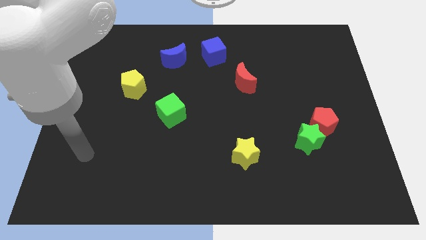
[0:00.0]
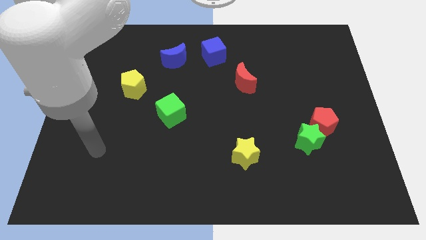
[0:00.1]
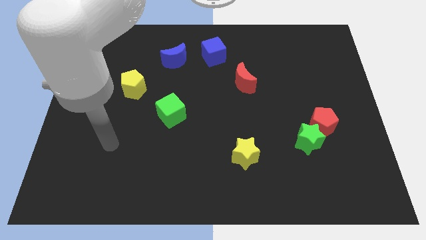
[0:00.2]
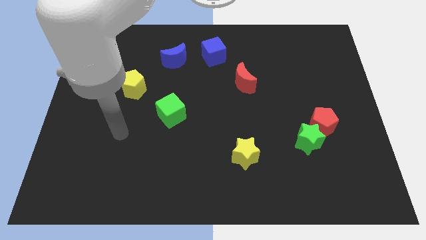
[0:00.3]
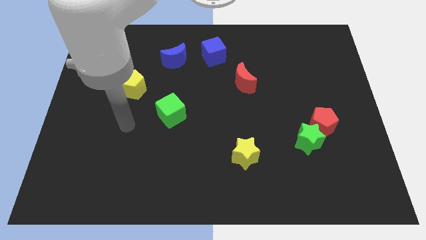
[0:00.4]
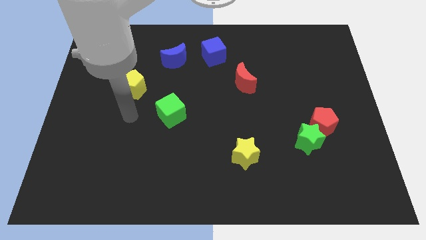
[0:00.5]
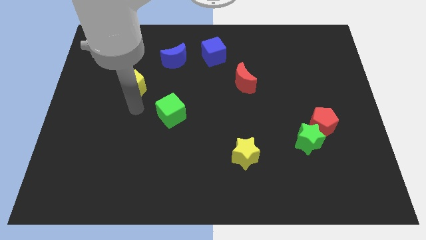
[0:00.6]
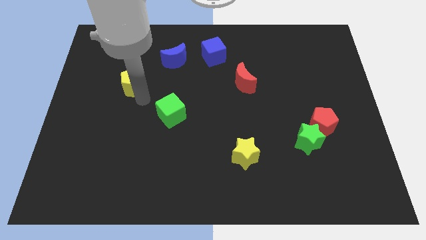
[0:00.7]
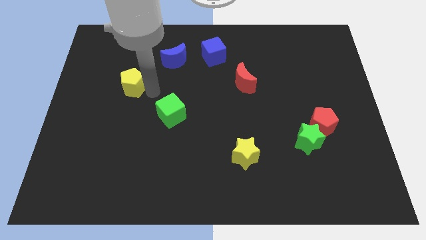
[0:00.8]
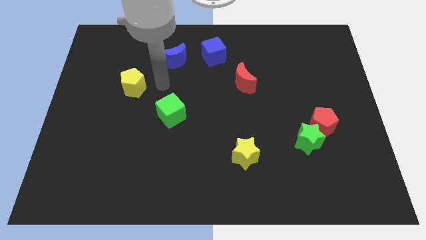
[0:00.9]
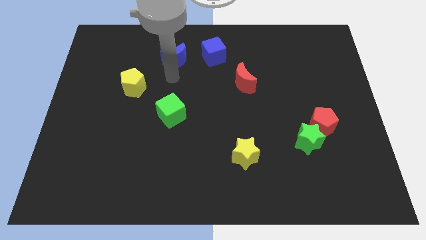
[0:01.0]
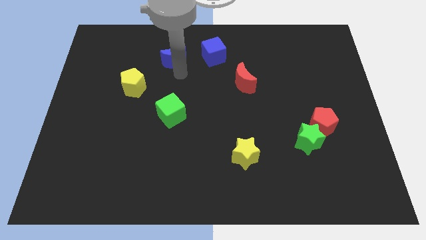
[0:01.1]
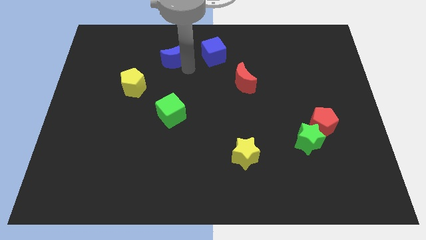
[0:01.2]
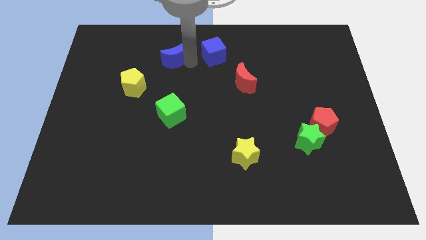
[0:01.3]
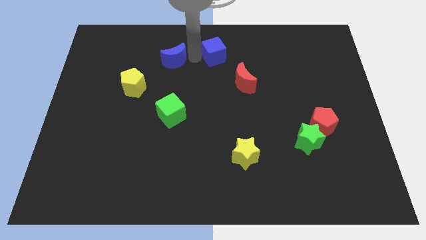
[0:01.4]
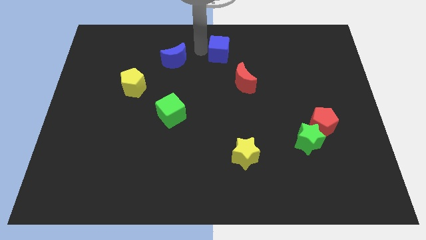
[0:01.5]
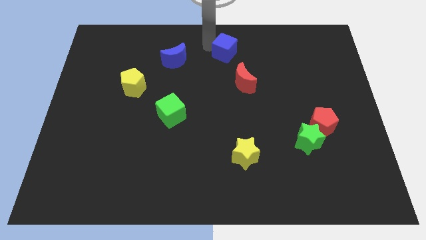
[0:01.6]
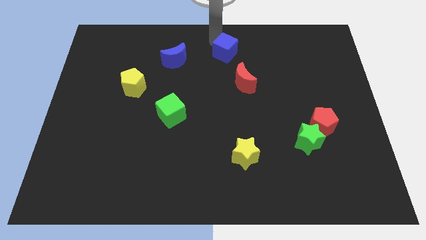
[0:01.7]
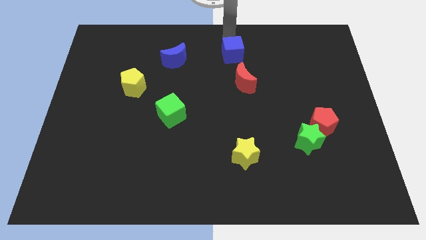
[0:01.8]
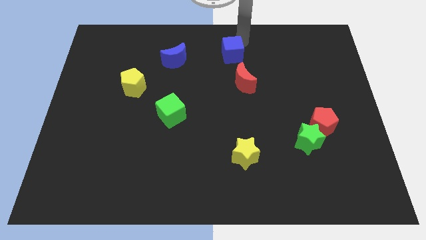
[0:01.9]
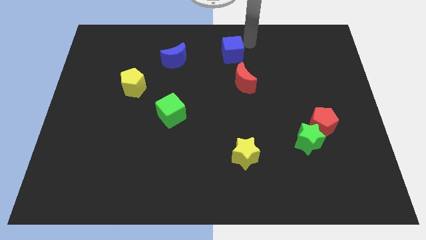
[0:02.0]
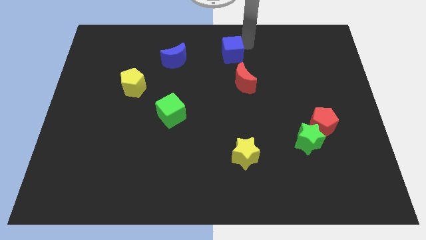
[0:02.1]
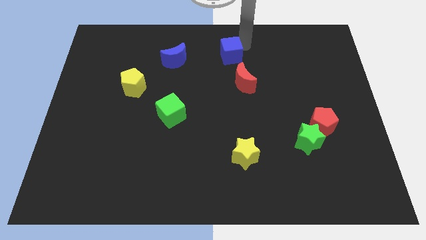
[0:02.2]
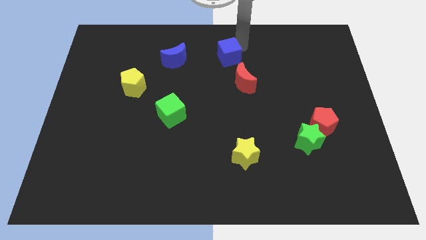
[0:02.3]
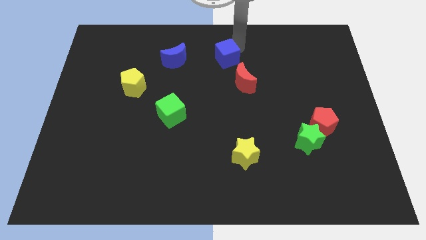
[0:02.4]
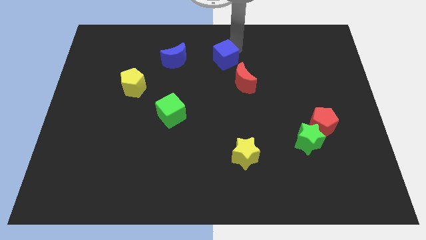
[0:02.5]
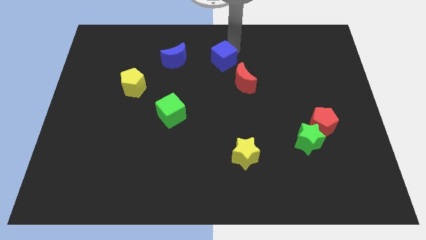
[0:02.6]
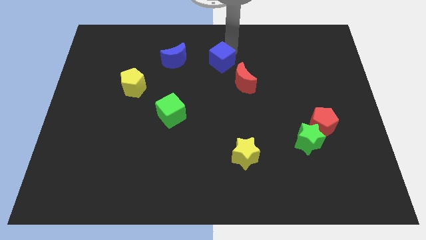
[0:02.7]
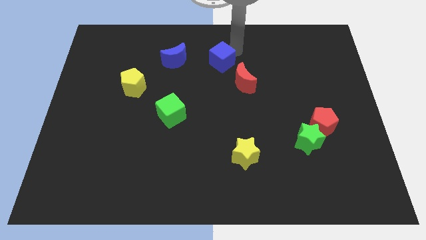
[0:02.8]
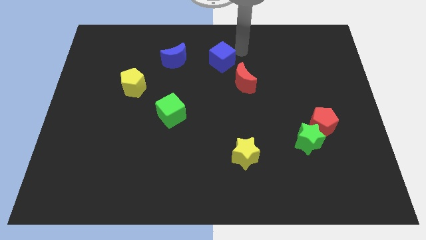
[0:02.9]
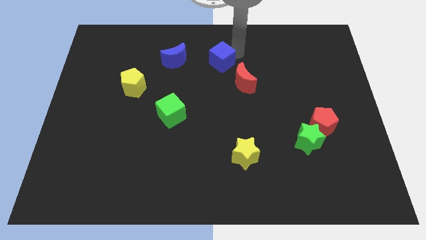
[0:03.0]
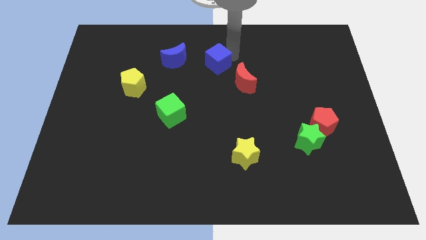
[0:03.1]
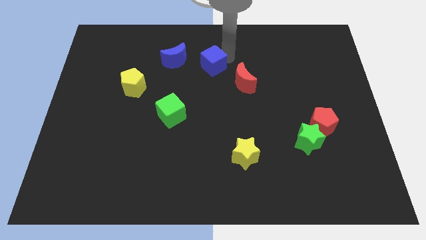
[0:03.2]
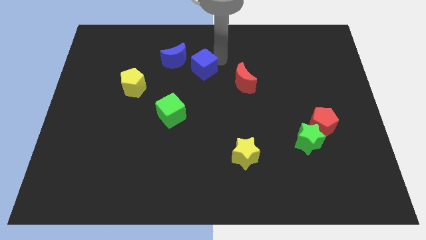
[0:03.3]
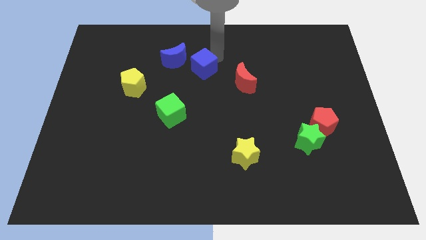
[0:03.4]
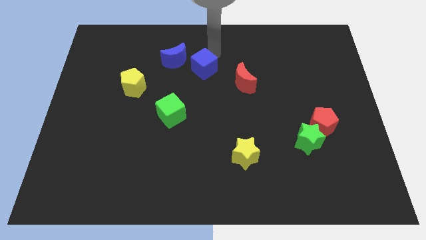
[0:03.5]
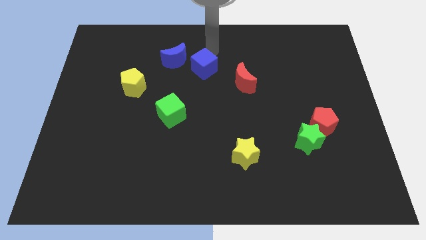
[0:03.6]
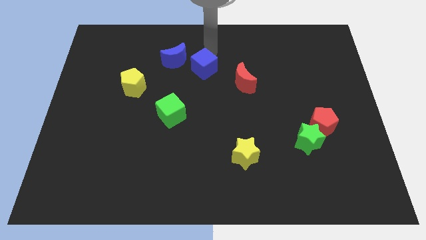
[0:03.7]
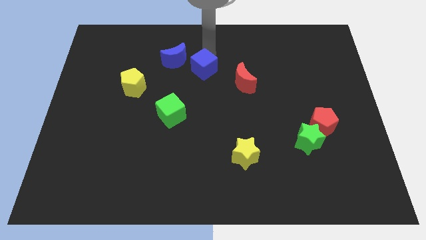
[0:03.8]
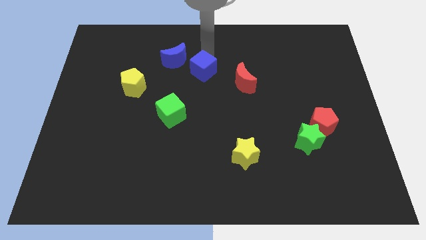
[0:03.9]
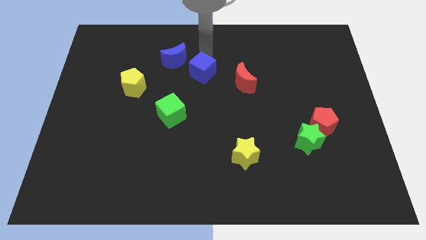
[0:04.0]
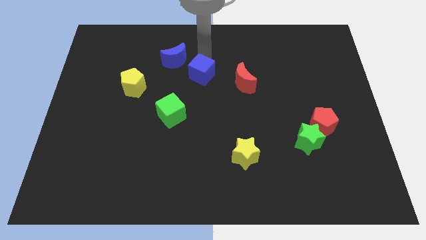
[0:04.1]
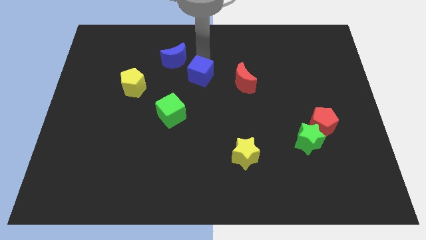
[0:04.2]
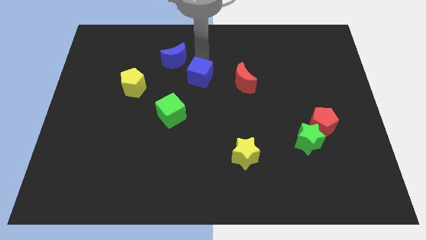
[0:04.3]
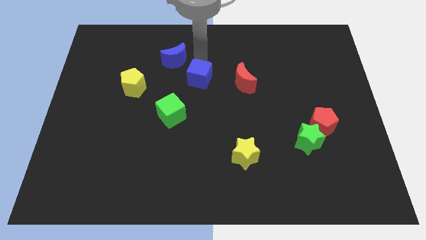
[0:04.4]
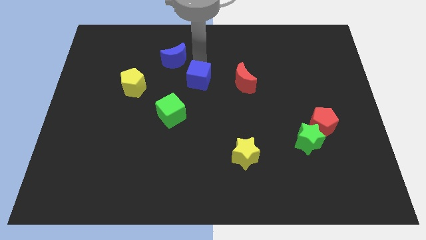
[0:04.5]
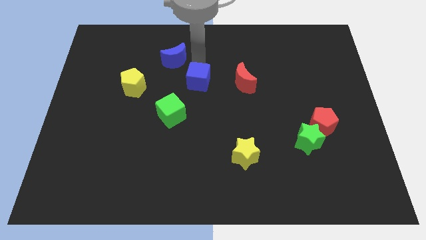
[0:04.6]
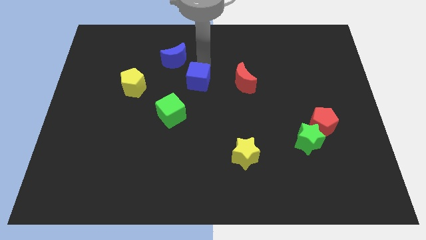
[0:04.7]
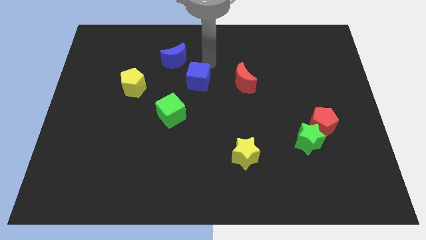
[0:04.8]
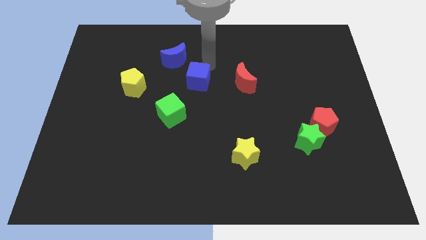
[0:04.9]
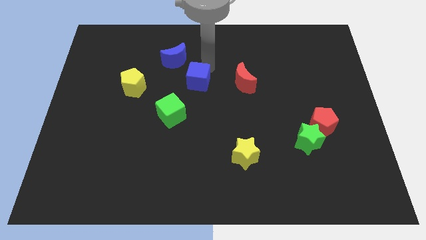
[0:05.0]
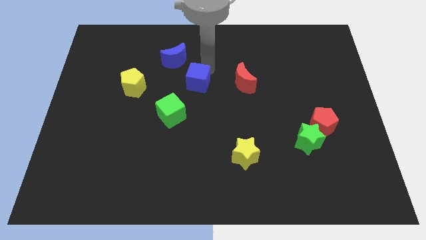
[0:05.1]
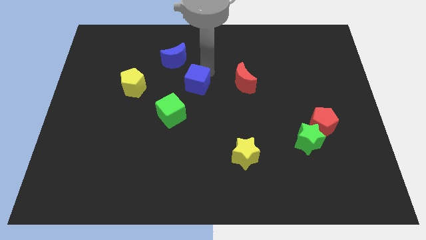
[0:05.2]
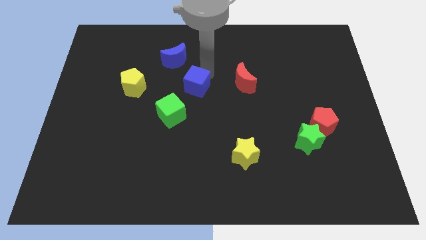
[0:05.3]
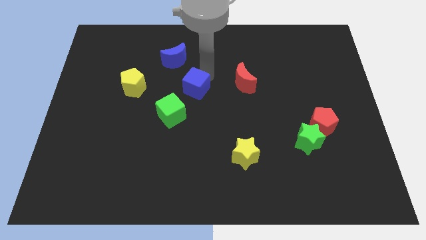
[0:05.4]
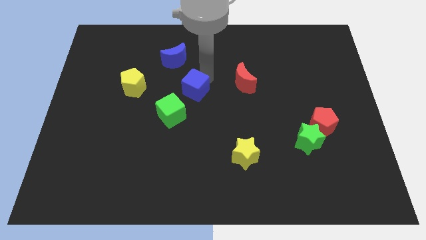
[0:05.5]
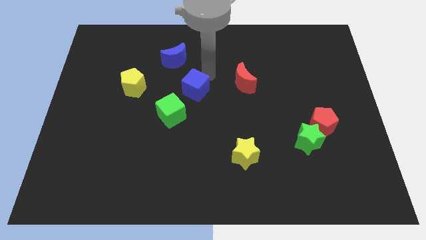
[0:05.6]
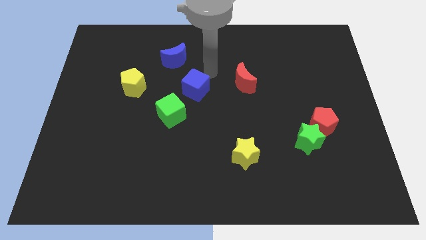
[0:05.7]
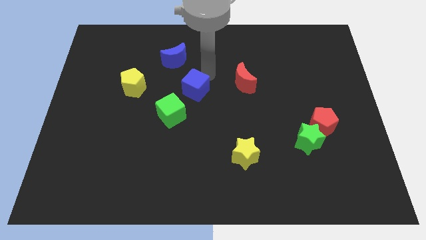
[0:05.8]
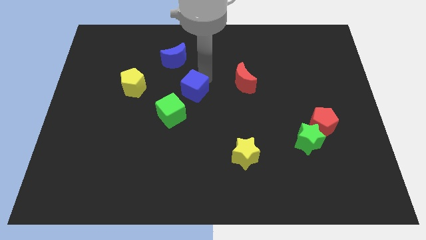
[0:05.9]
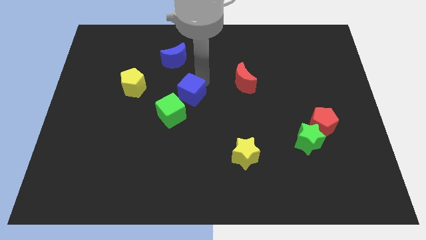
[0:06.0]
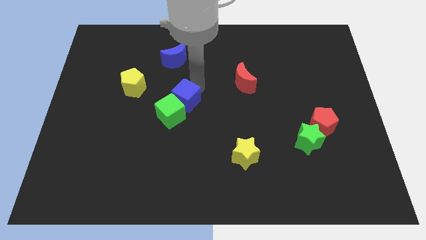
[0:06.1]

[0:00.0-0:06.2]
push the blue cube to the green cube

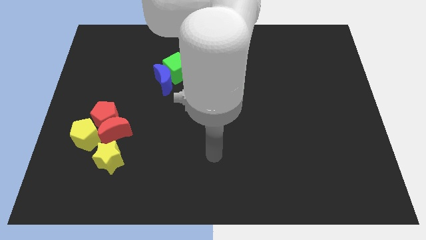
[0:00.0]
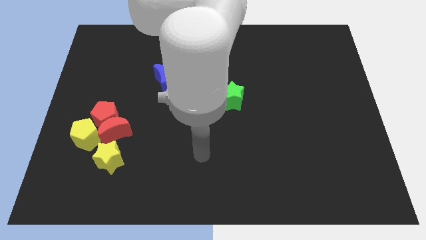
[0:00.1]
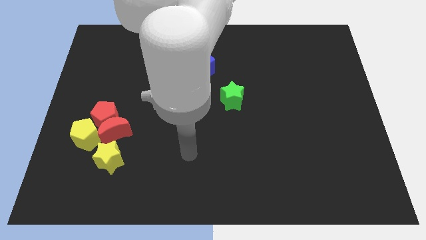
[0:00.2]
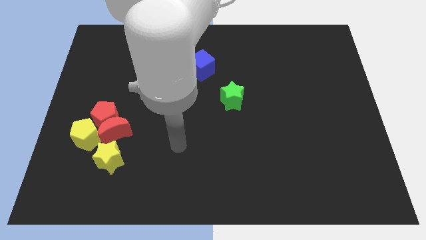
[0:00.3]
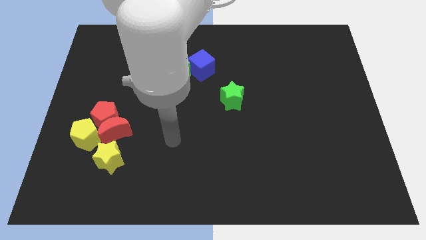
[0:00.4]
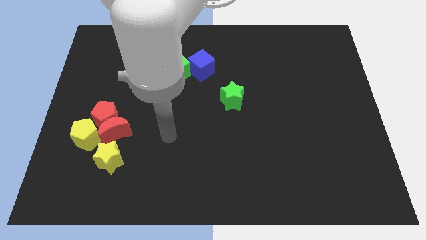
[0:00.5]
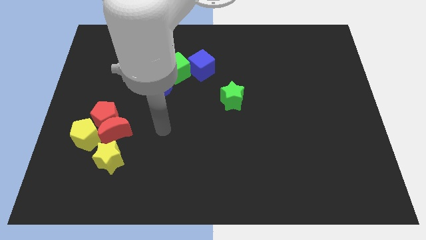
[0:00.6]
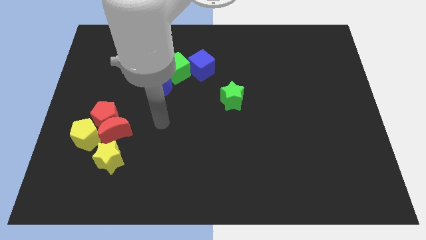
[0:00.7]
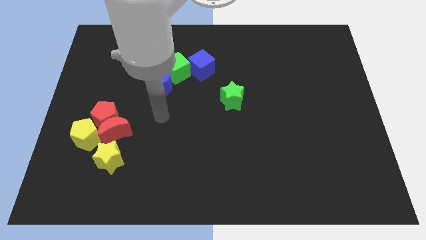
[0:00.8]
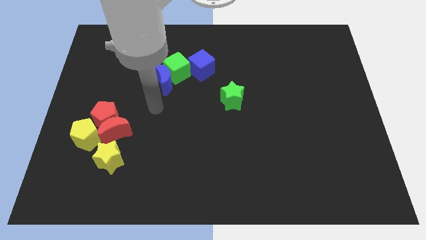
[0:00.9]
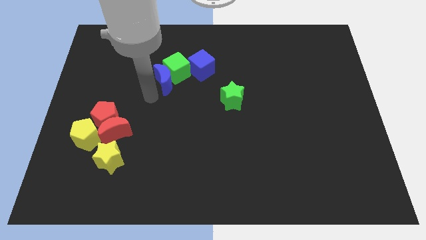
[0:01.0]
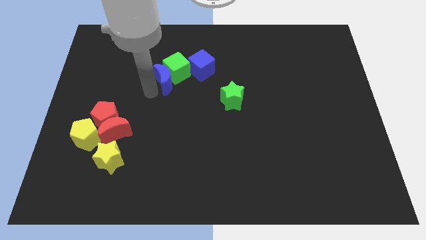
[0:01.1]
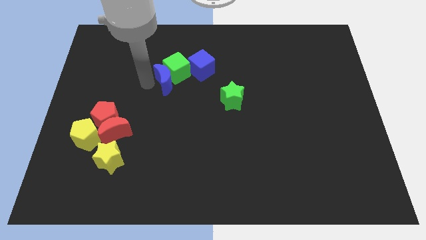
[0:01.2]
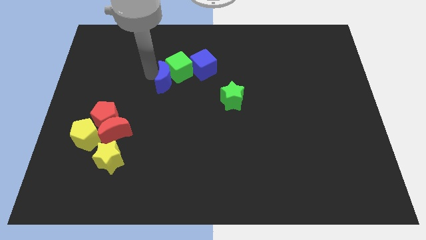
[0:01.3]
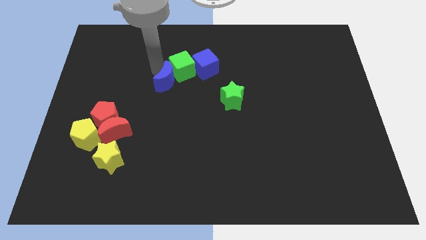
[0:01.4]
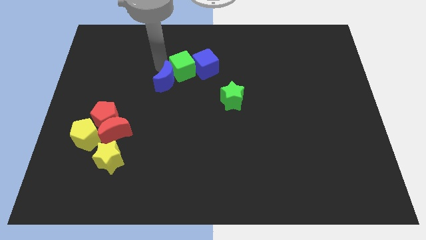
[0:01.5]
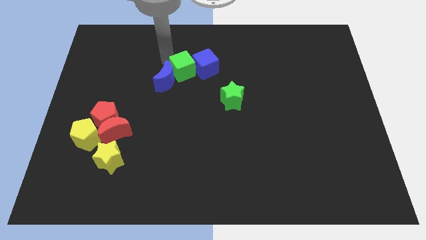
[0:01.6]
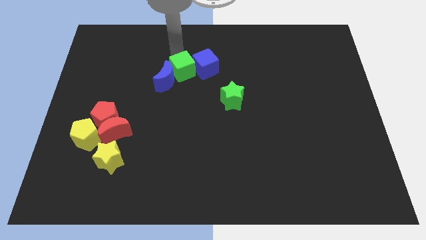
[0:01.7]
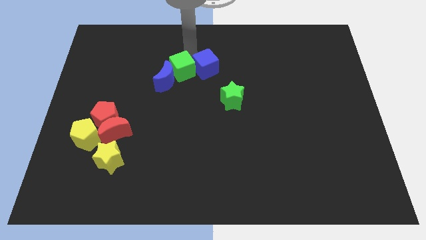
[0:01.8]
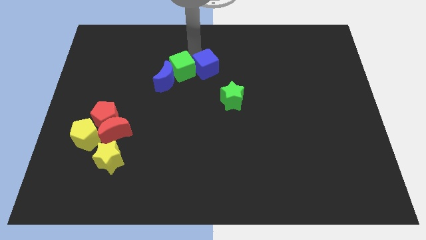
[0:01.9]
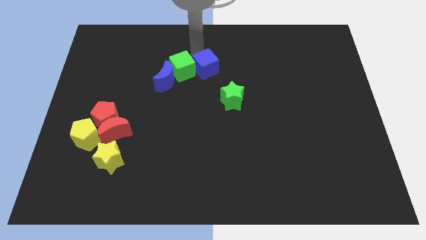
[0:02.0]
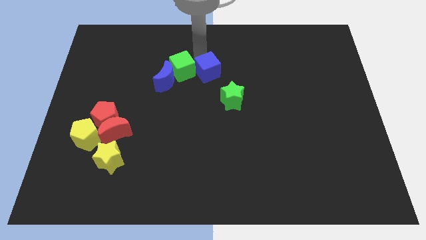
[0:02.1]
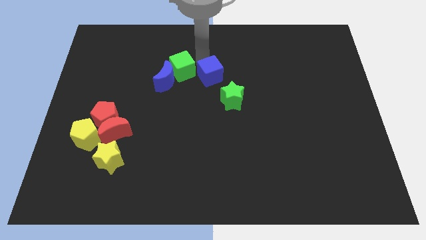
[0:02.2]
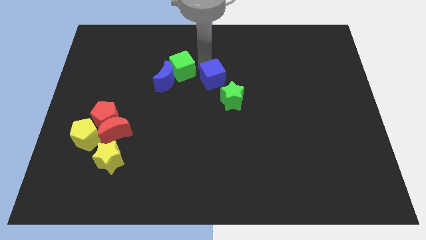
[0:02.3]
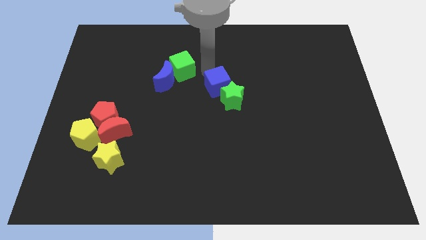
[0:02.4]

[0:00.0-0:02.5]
push the blue cube to the green star
